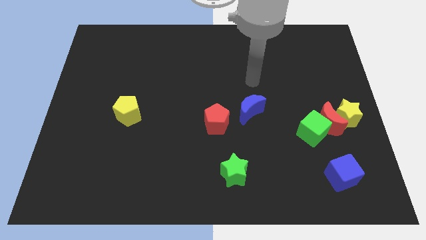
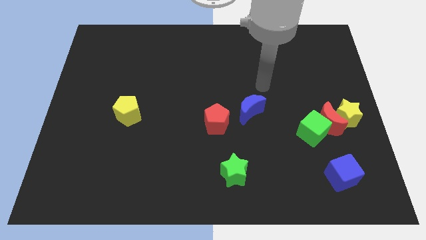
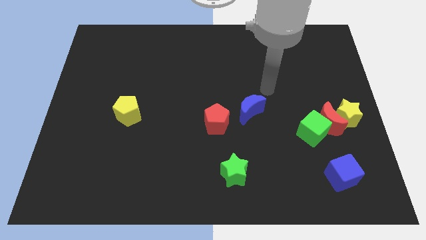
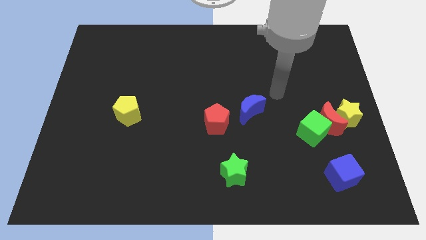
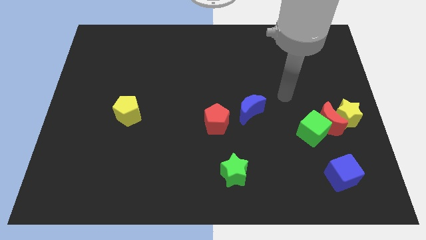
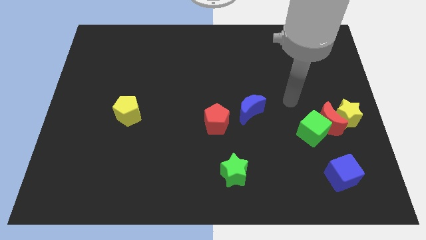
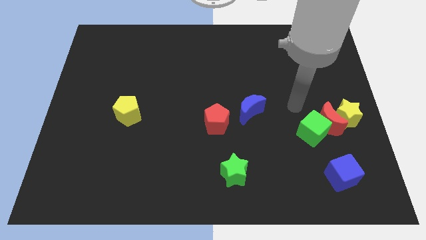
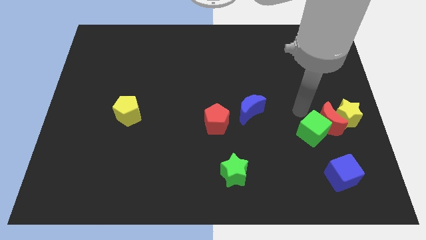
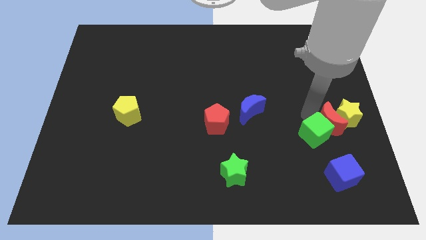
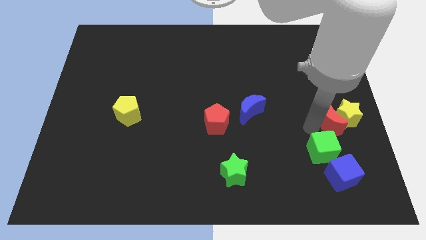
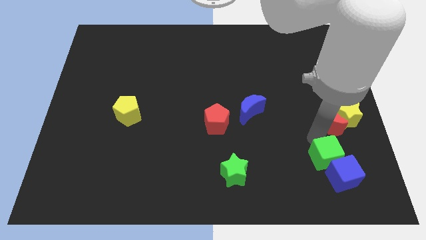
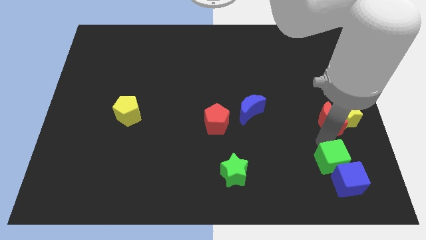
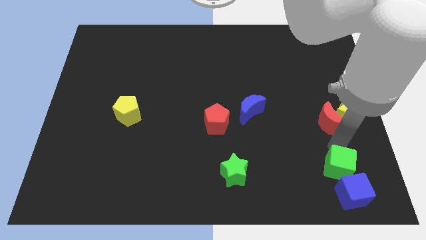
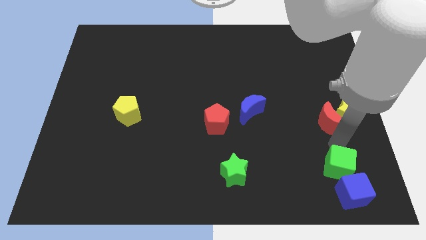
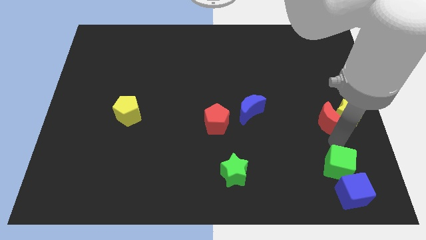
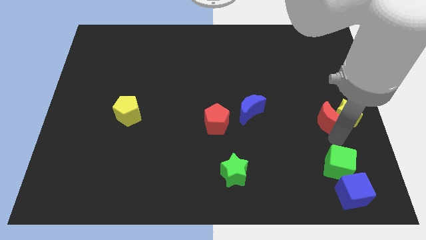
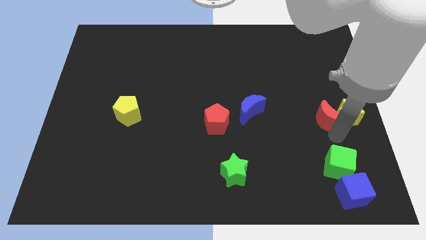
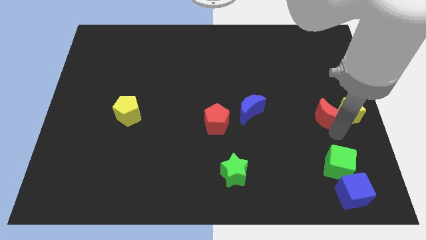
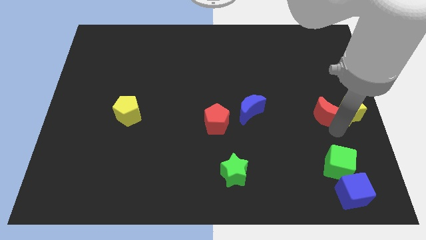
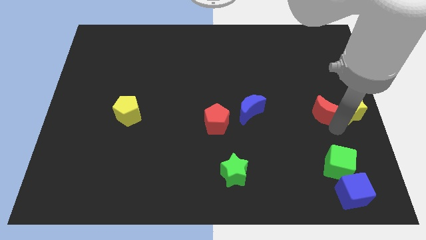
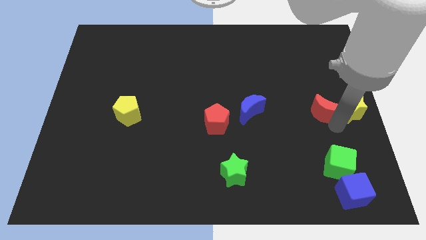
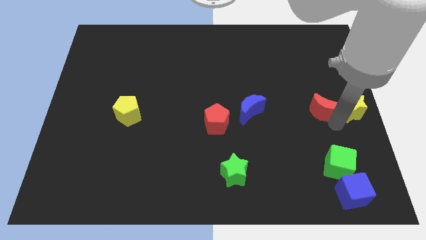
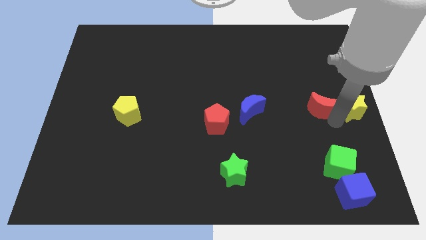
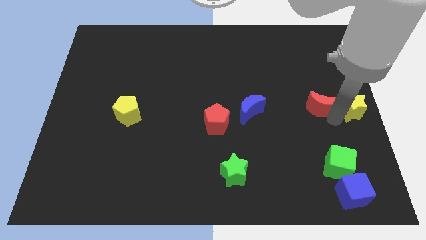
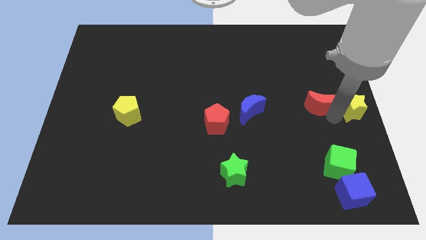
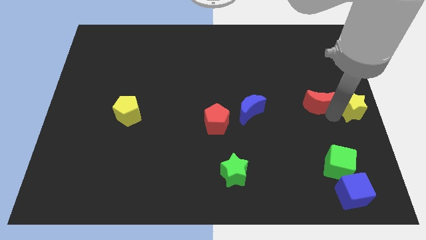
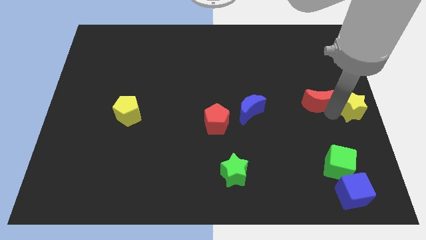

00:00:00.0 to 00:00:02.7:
move the red moon away from the yellow star and green cube

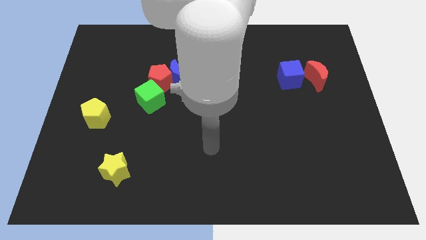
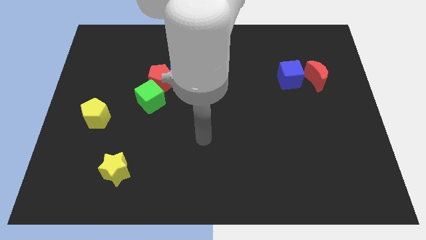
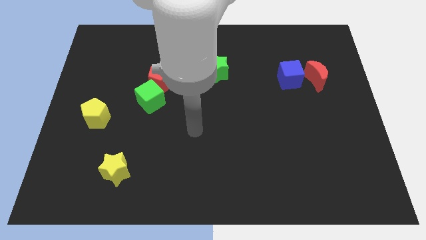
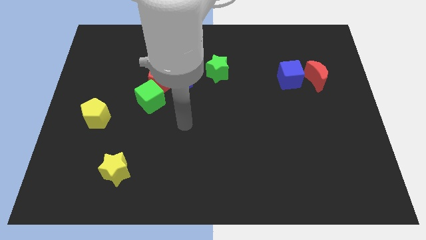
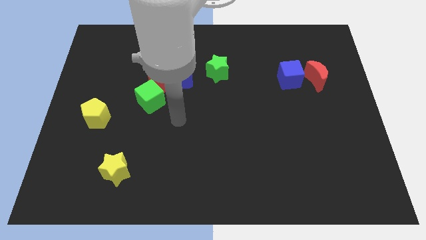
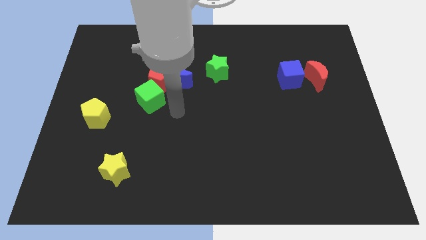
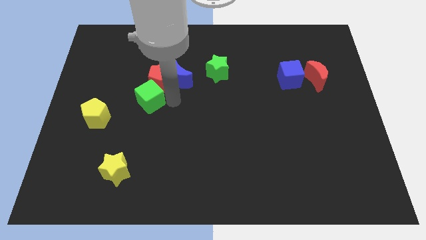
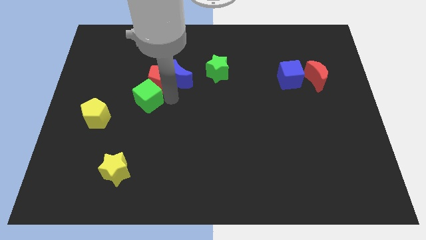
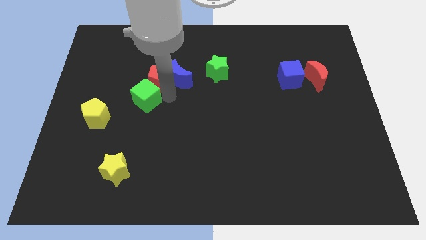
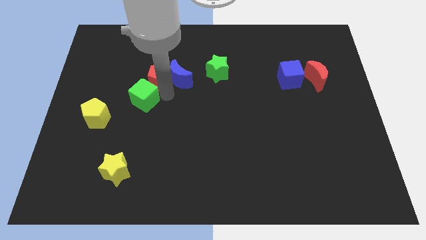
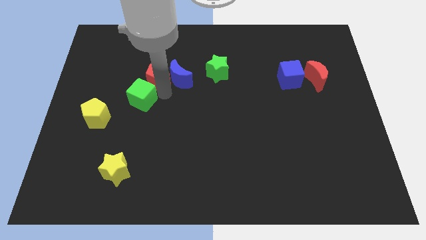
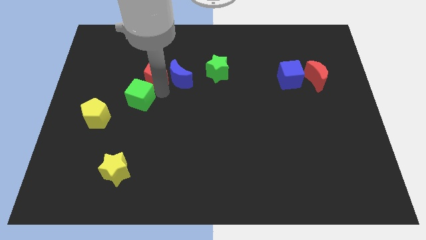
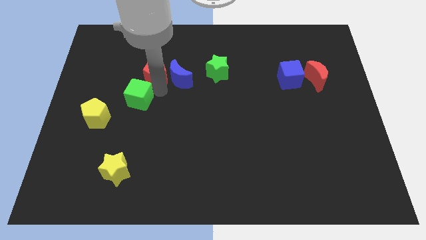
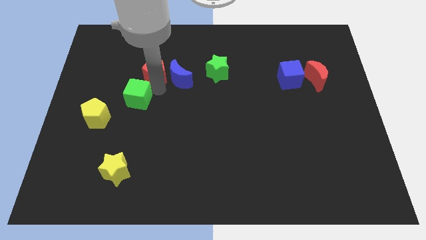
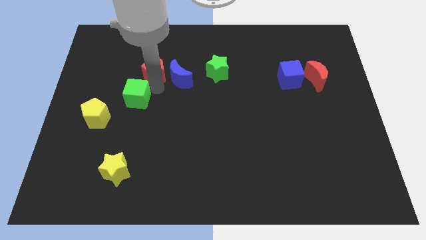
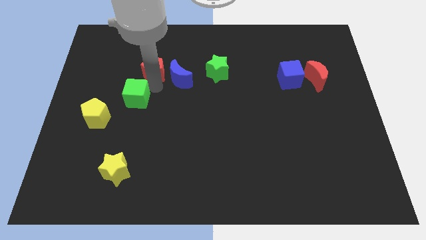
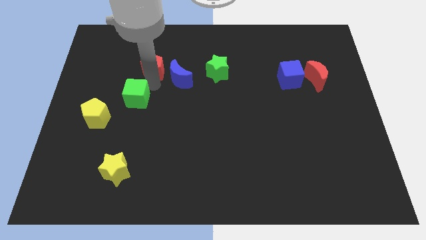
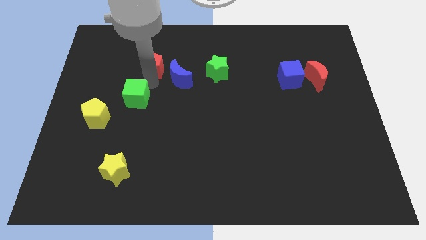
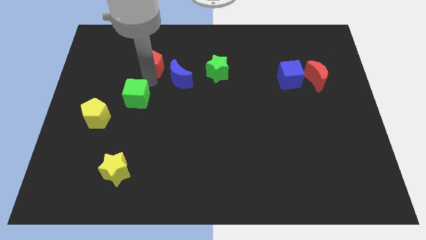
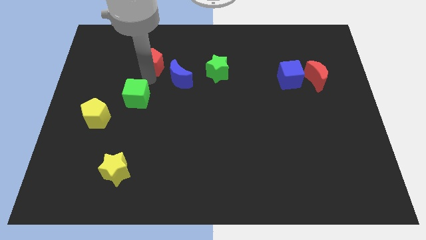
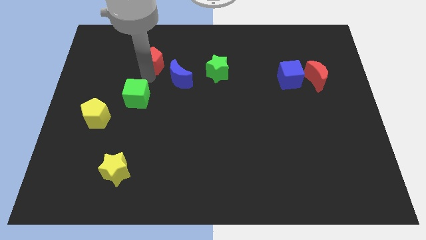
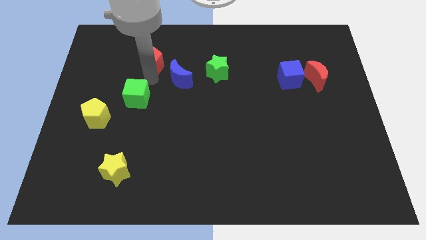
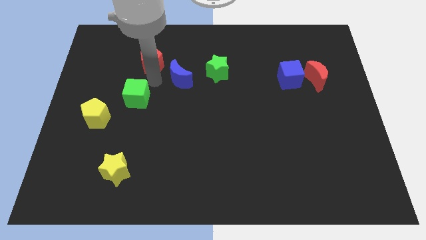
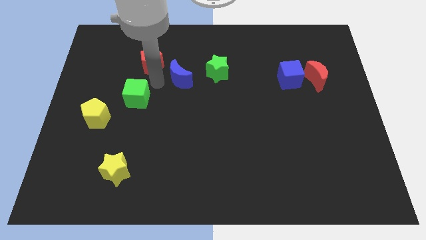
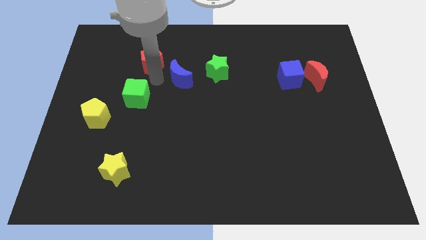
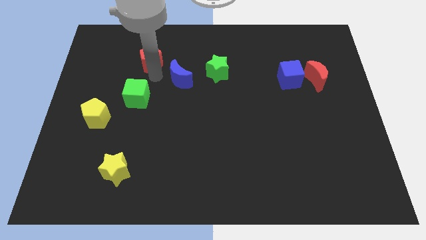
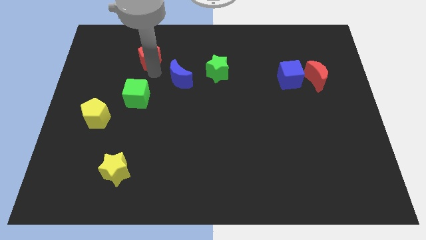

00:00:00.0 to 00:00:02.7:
move the red pentagon away from the blue moon and green cube

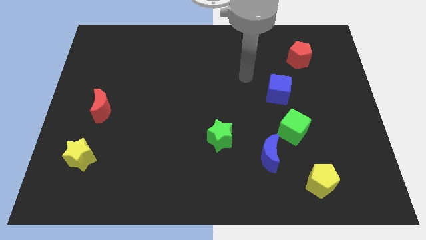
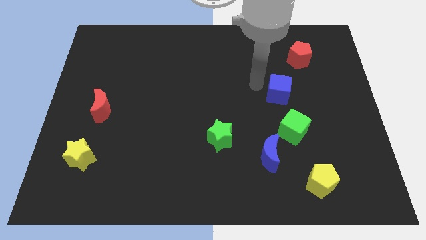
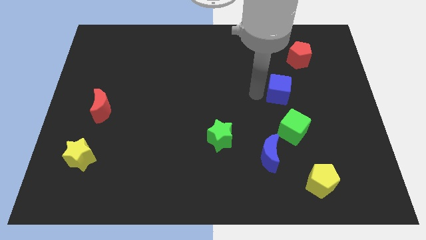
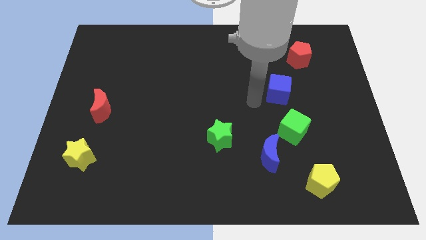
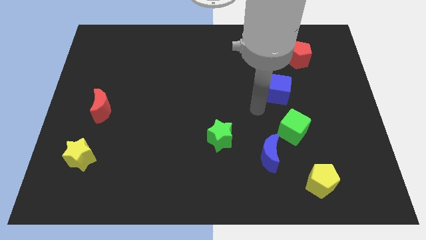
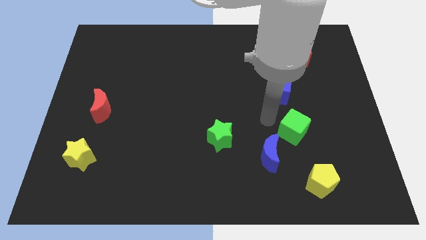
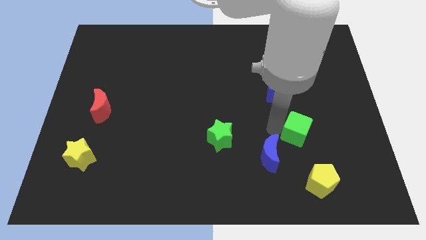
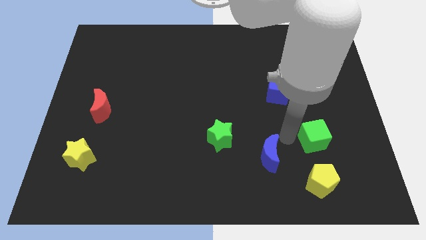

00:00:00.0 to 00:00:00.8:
separate the blue moon from the green cube

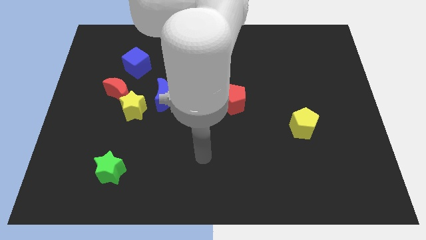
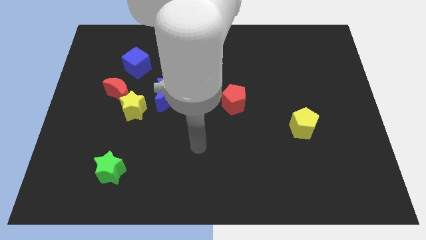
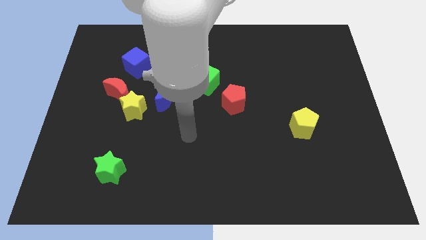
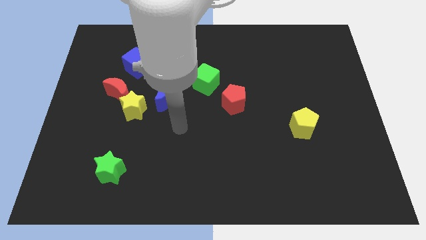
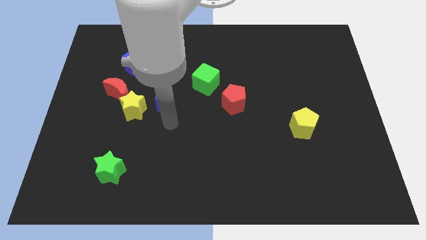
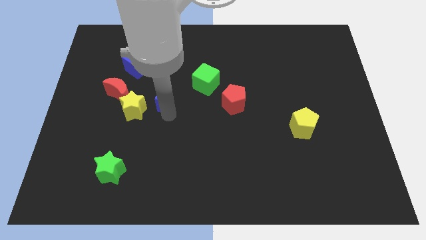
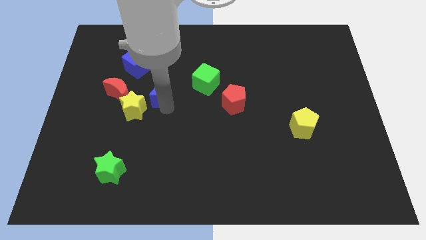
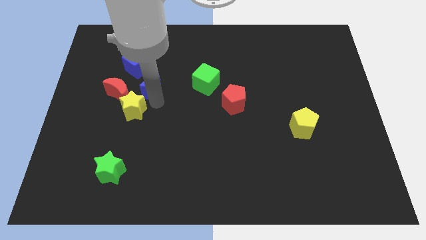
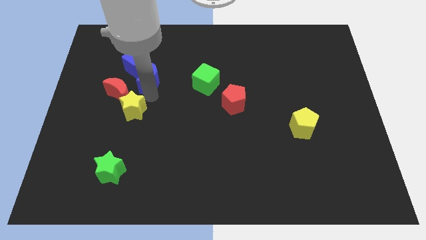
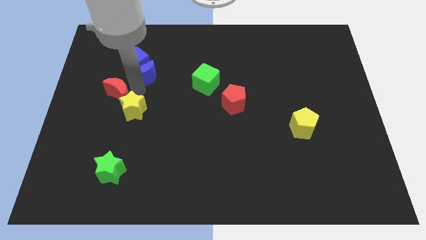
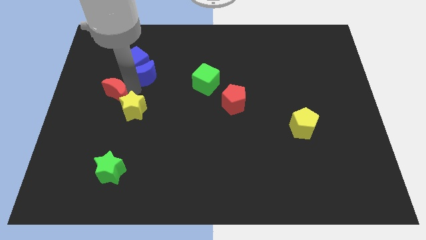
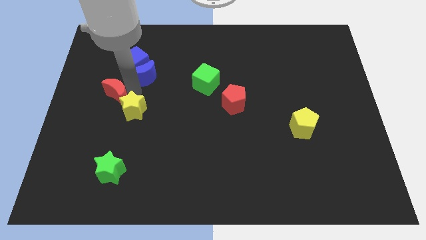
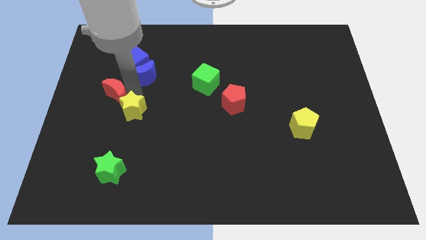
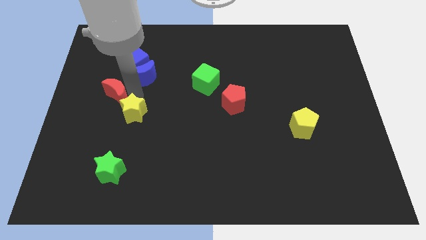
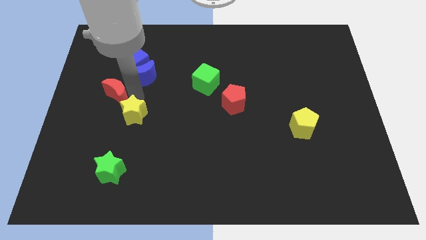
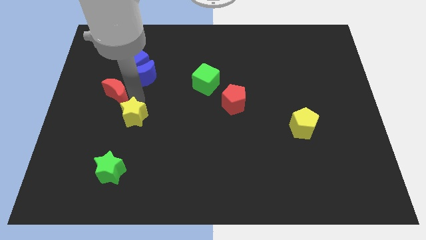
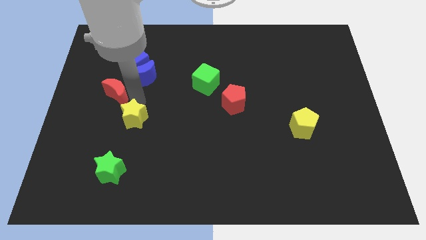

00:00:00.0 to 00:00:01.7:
separate the yellow star from the red moon and blue moon

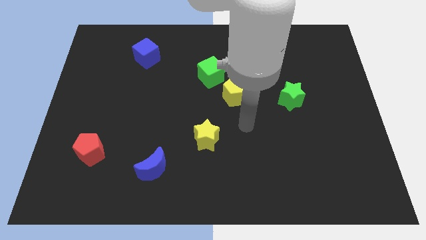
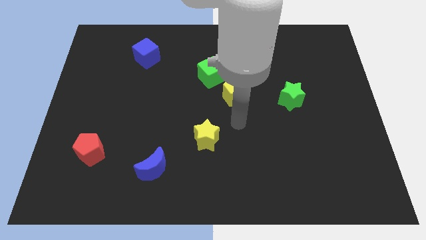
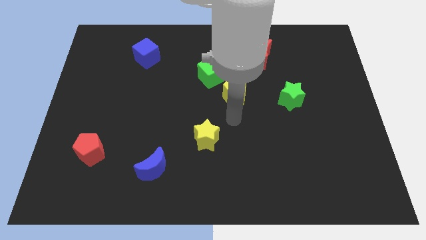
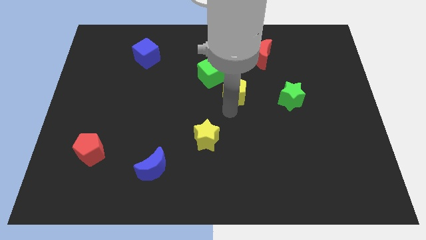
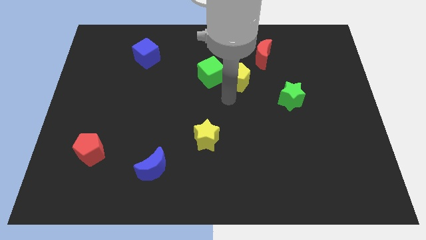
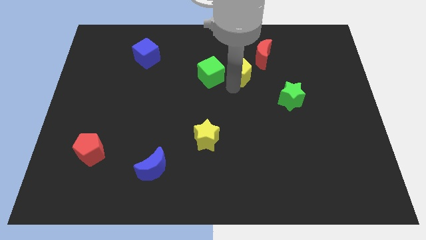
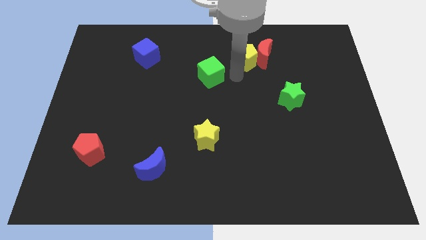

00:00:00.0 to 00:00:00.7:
pull the green cube apart from the yellow pentagon

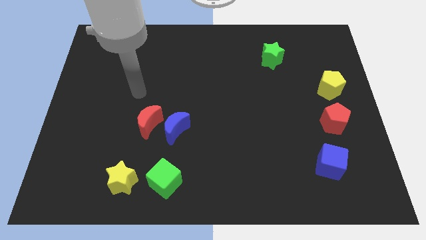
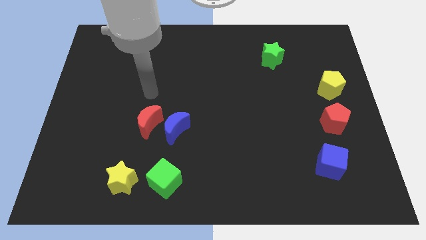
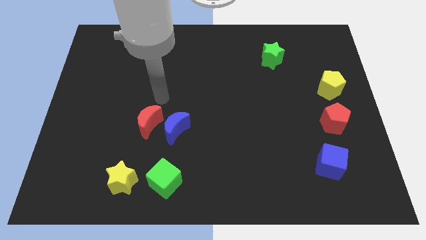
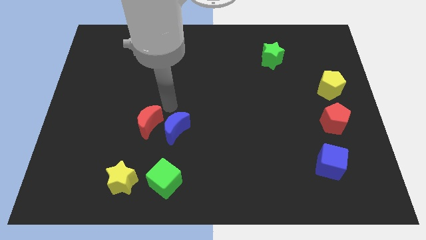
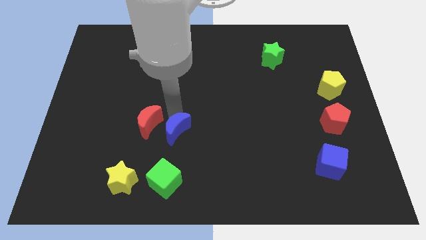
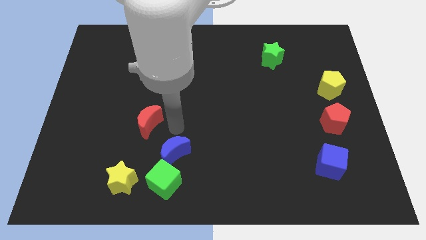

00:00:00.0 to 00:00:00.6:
move the red moon away from the blue moon

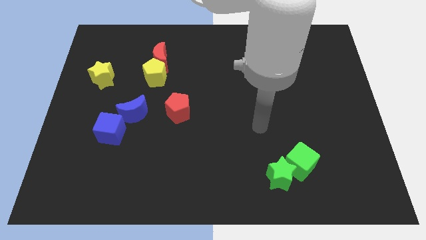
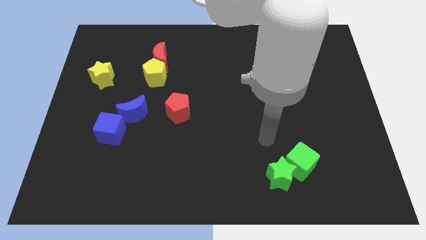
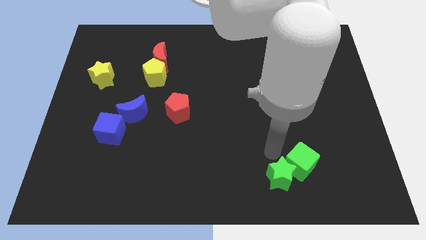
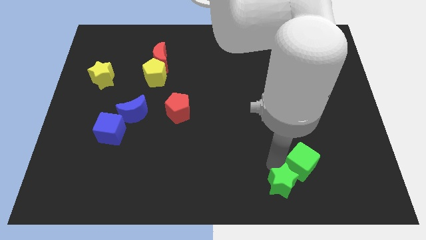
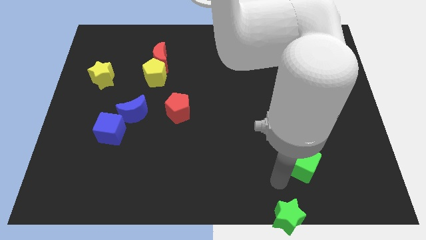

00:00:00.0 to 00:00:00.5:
move the green cube away from the green star
